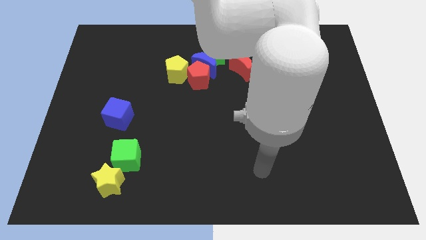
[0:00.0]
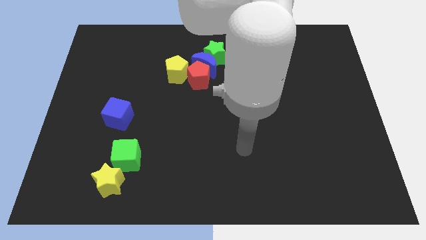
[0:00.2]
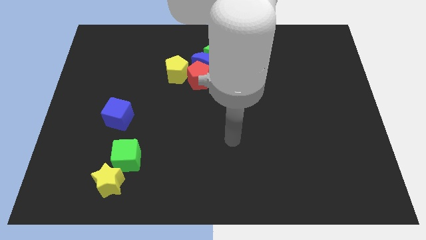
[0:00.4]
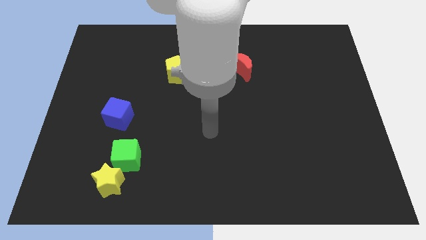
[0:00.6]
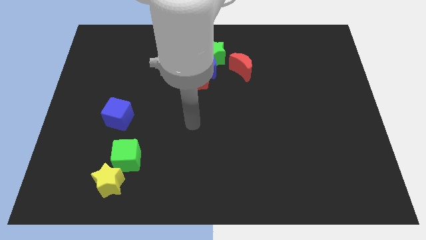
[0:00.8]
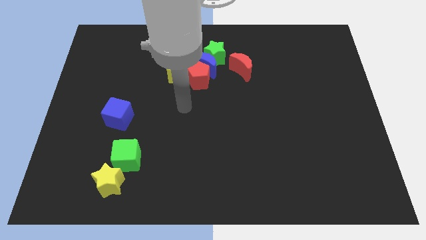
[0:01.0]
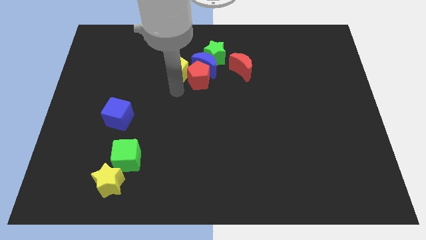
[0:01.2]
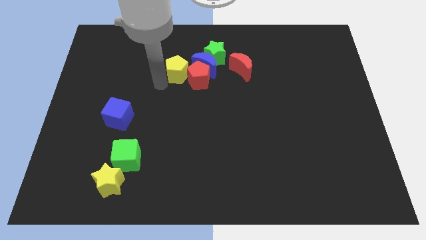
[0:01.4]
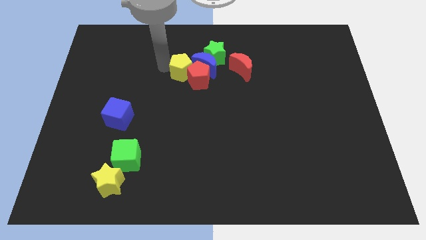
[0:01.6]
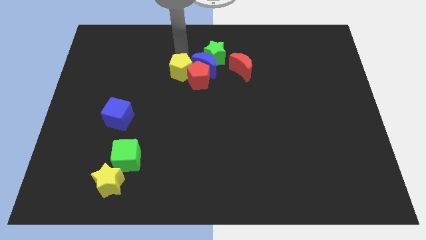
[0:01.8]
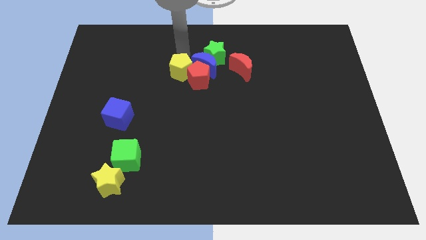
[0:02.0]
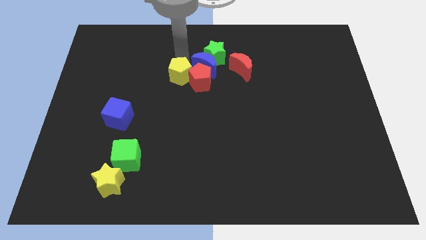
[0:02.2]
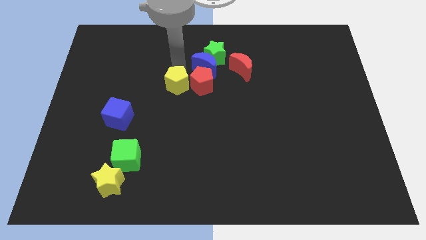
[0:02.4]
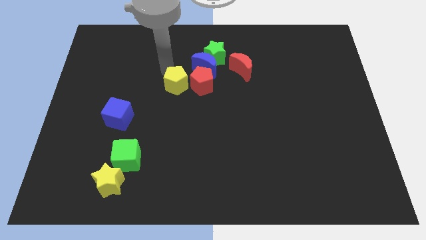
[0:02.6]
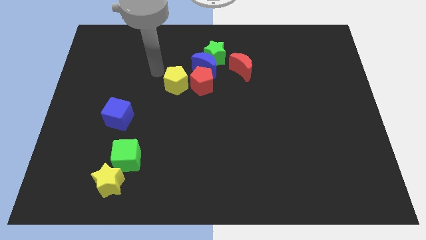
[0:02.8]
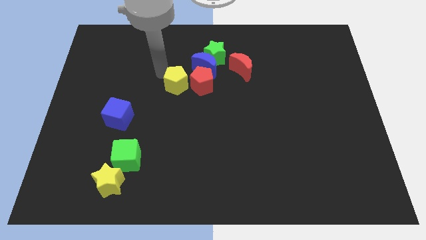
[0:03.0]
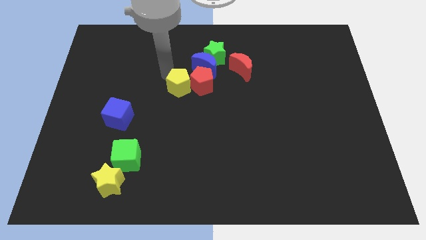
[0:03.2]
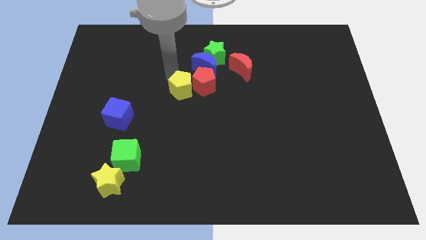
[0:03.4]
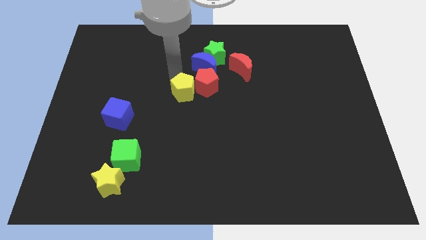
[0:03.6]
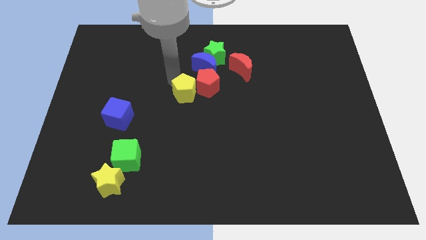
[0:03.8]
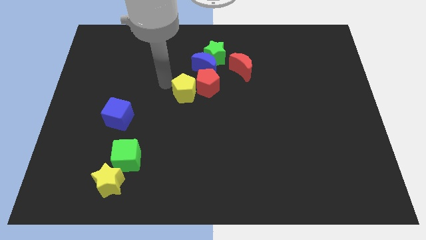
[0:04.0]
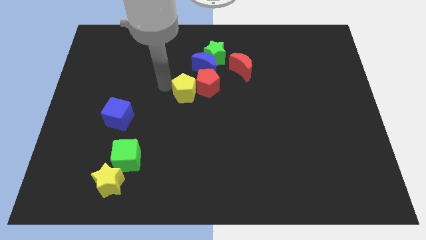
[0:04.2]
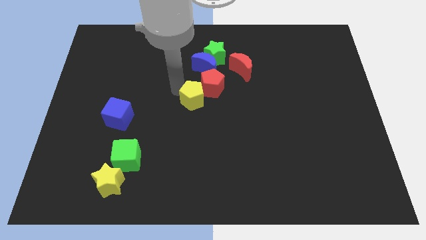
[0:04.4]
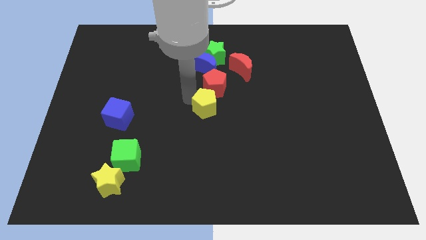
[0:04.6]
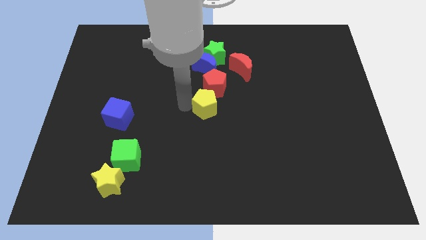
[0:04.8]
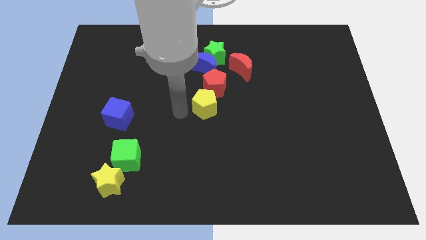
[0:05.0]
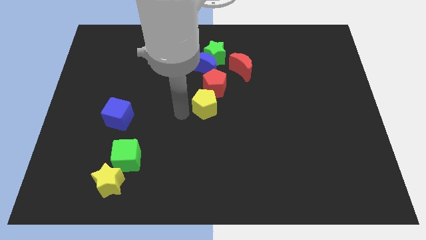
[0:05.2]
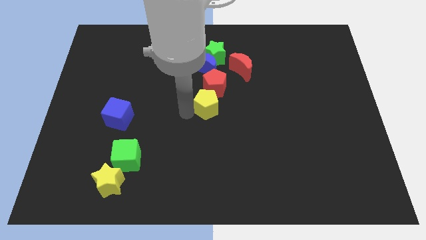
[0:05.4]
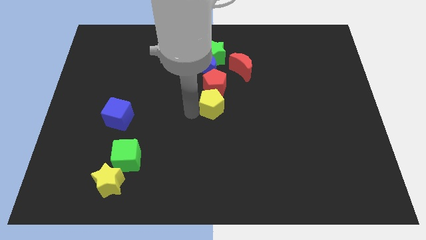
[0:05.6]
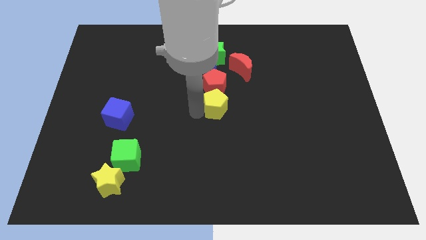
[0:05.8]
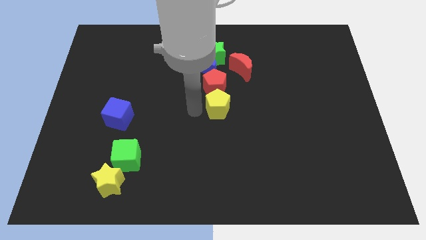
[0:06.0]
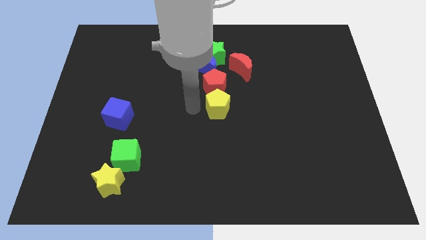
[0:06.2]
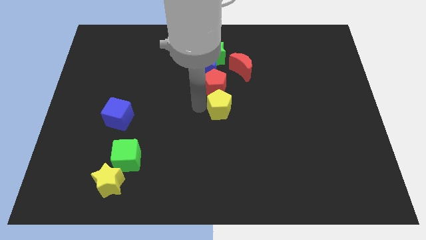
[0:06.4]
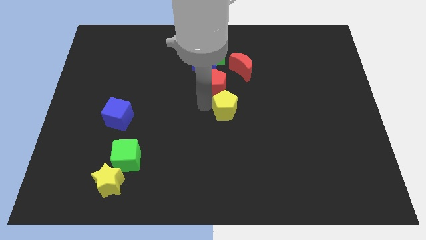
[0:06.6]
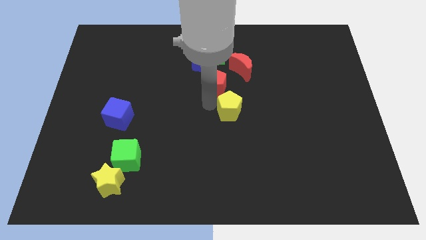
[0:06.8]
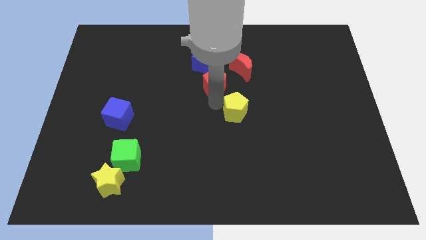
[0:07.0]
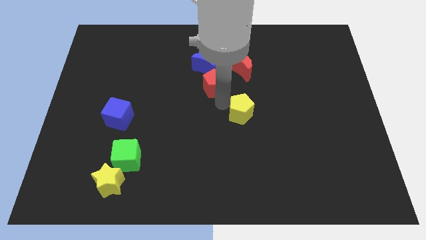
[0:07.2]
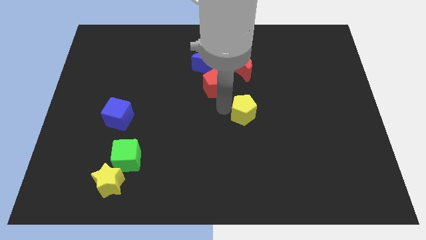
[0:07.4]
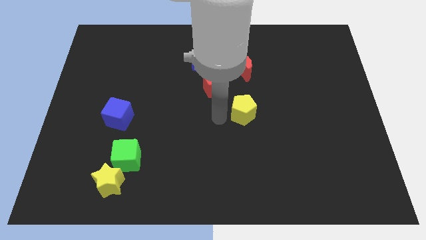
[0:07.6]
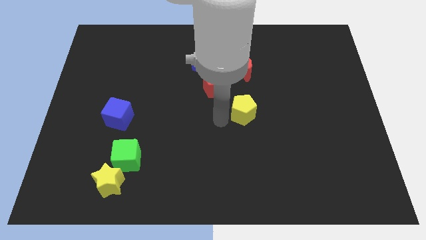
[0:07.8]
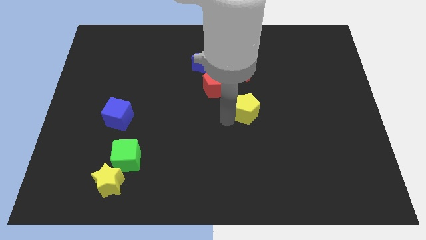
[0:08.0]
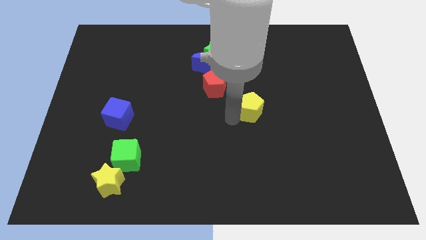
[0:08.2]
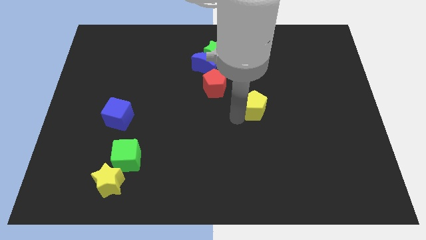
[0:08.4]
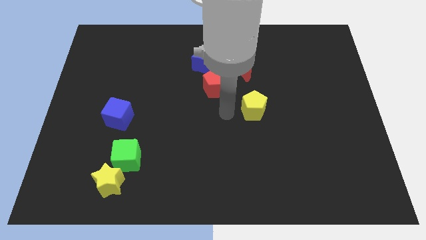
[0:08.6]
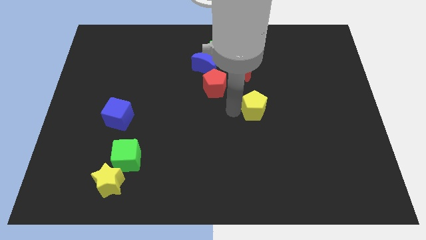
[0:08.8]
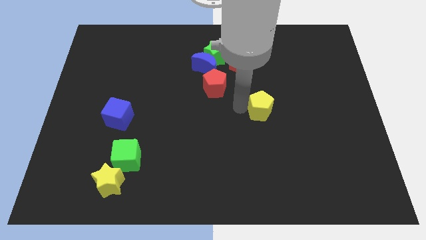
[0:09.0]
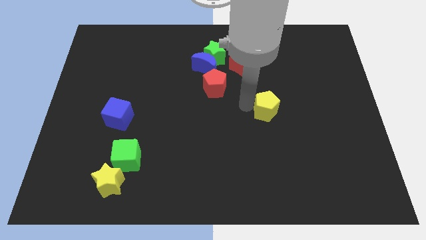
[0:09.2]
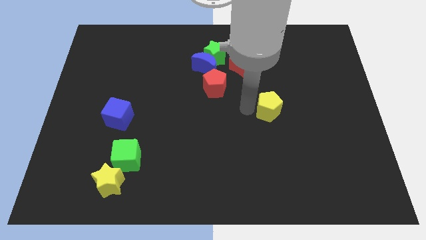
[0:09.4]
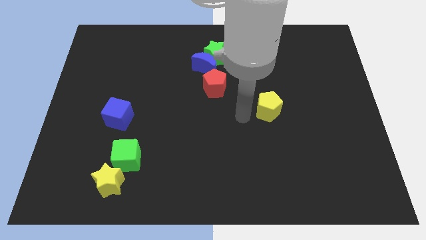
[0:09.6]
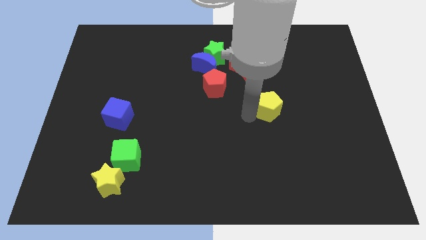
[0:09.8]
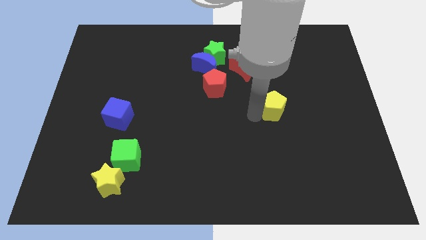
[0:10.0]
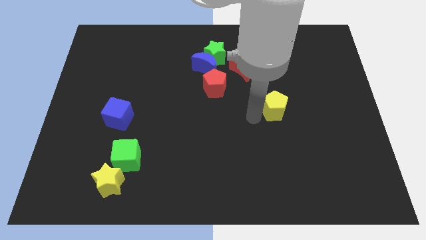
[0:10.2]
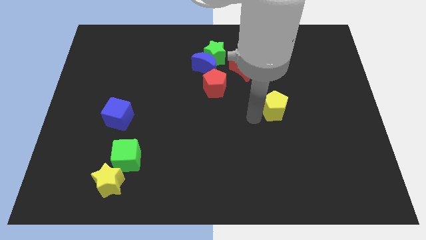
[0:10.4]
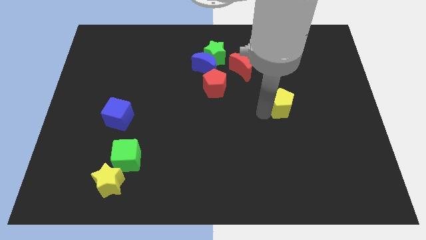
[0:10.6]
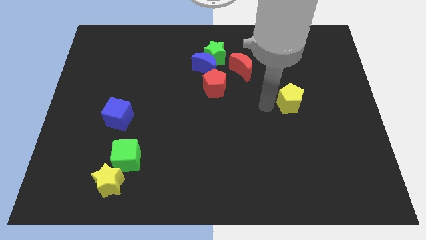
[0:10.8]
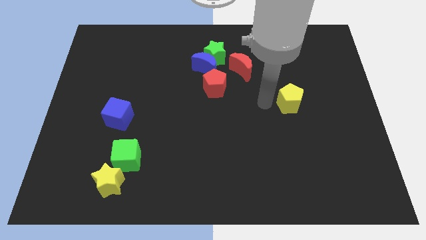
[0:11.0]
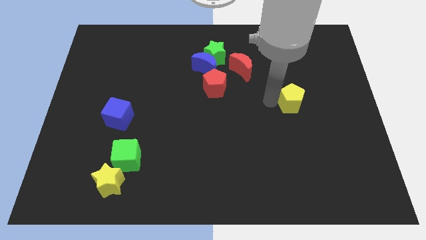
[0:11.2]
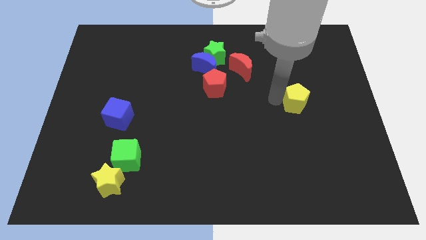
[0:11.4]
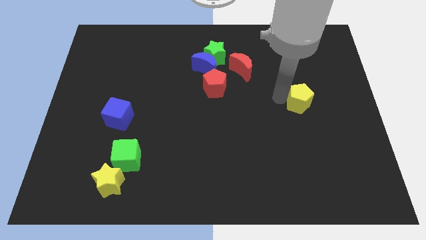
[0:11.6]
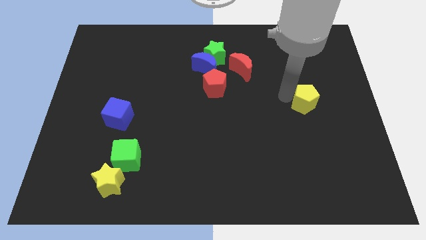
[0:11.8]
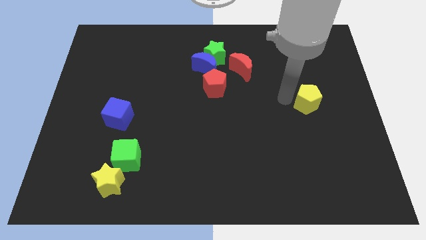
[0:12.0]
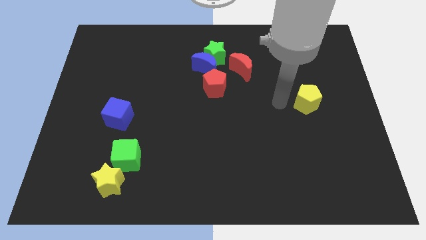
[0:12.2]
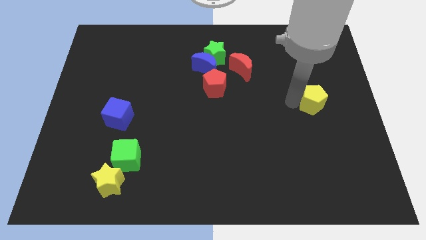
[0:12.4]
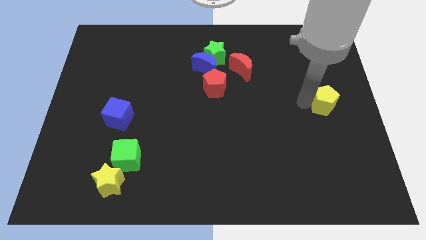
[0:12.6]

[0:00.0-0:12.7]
push the yellow pentagon to the center right

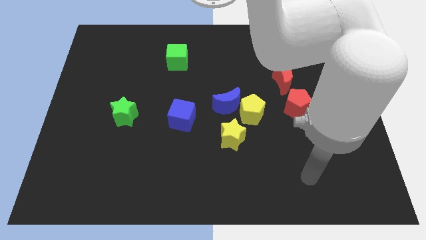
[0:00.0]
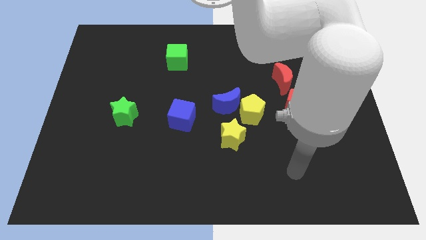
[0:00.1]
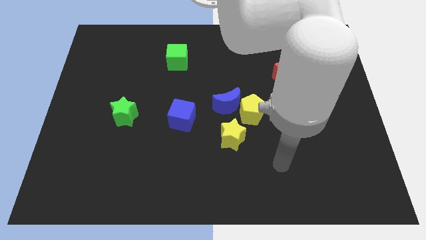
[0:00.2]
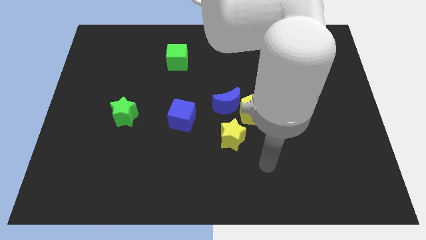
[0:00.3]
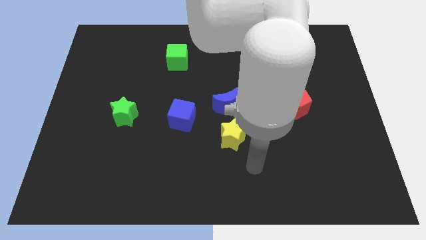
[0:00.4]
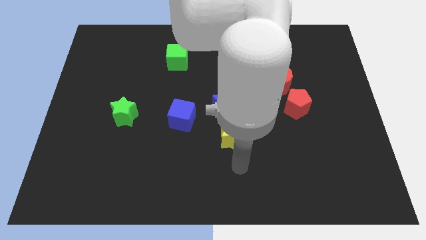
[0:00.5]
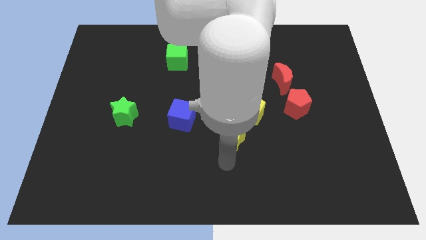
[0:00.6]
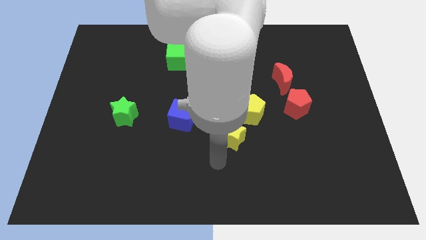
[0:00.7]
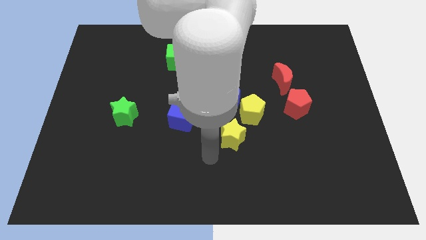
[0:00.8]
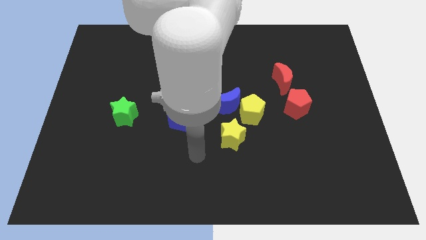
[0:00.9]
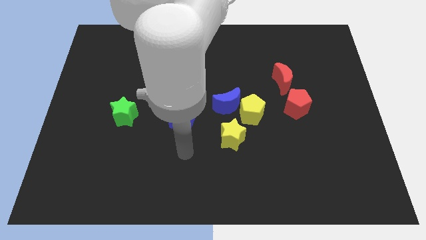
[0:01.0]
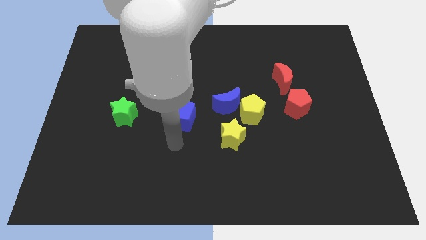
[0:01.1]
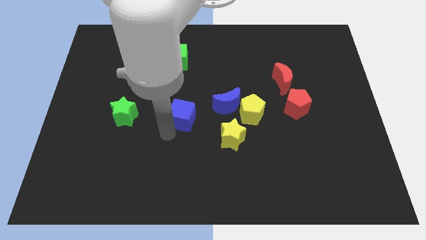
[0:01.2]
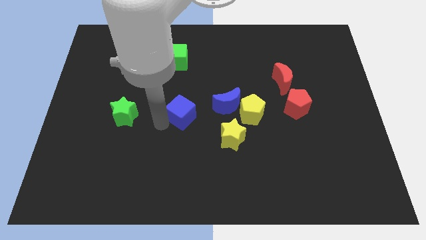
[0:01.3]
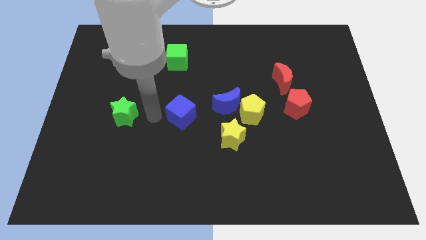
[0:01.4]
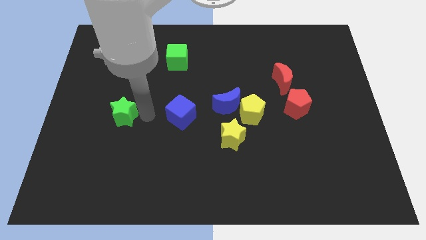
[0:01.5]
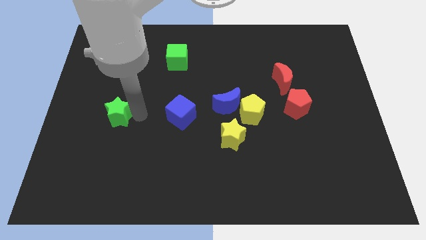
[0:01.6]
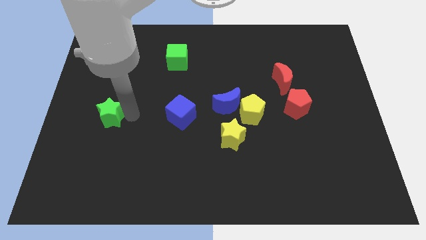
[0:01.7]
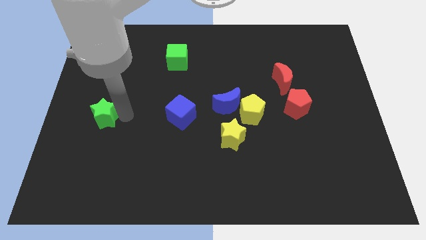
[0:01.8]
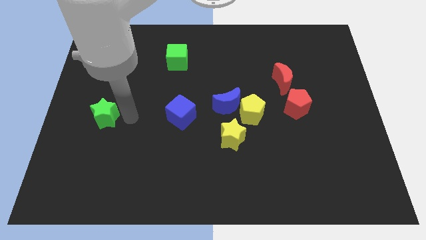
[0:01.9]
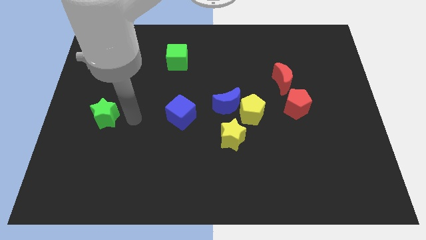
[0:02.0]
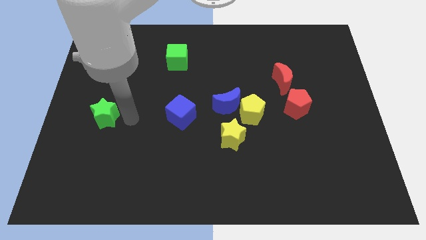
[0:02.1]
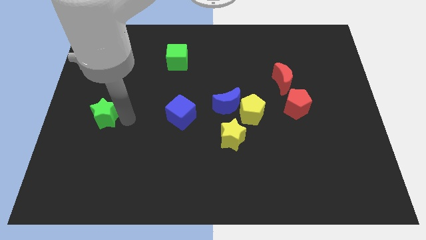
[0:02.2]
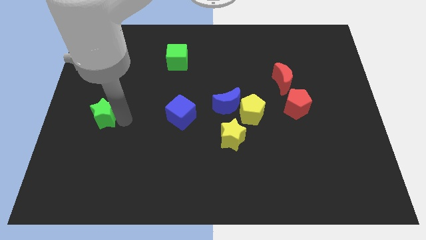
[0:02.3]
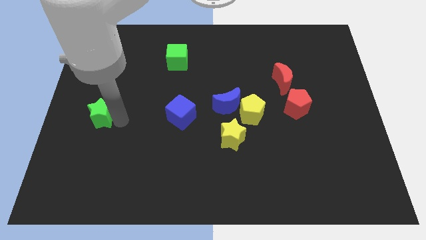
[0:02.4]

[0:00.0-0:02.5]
slide the green star to the left side
